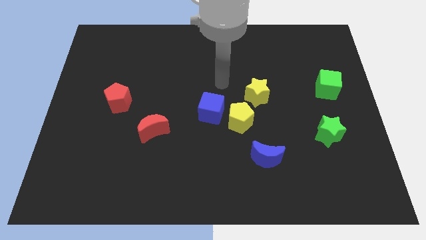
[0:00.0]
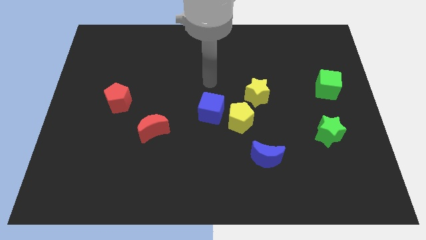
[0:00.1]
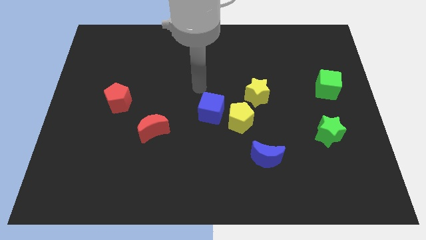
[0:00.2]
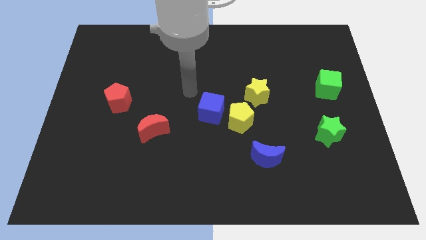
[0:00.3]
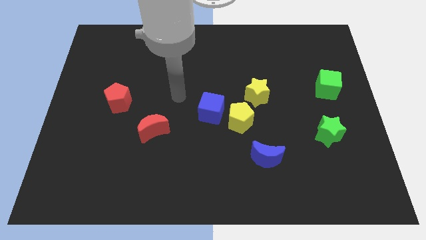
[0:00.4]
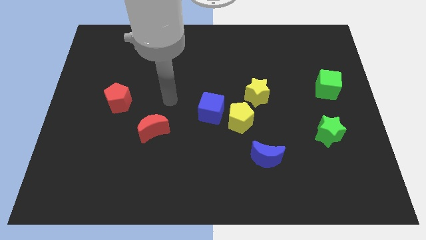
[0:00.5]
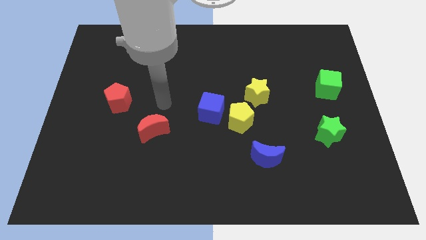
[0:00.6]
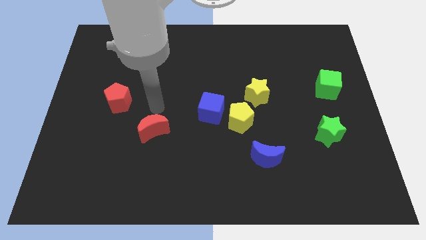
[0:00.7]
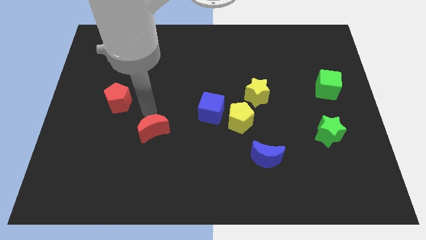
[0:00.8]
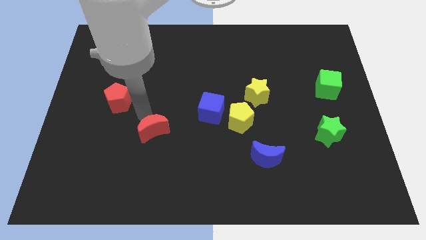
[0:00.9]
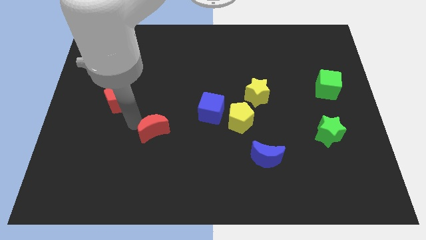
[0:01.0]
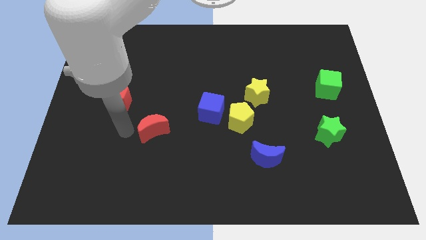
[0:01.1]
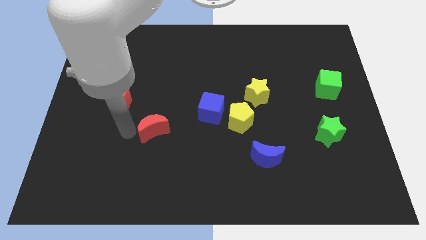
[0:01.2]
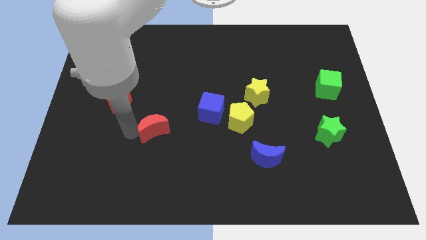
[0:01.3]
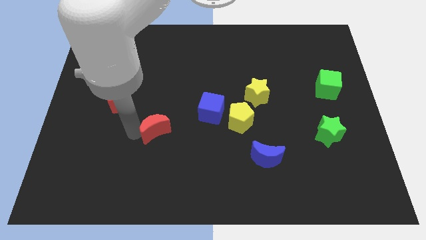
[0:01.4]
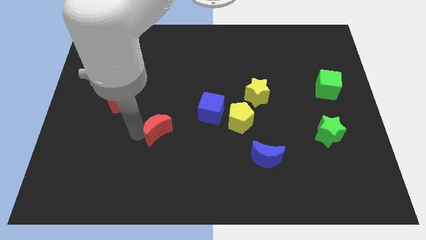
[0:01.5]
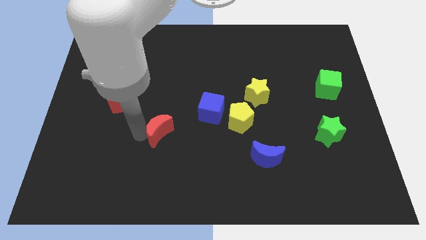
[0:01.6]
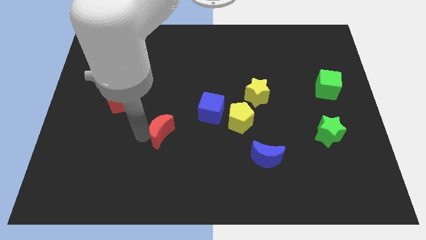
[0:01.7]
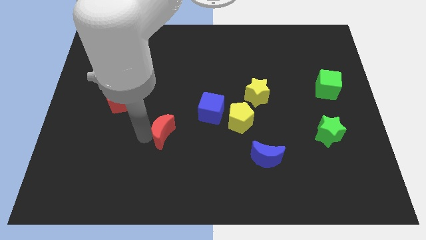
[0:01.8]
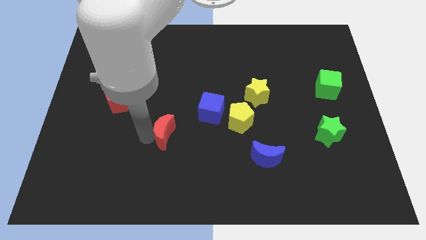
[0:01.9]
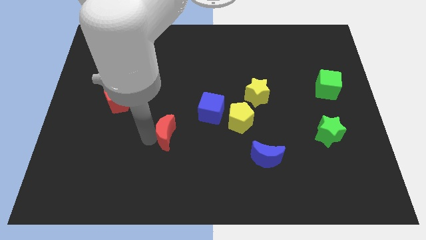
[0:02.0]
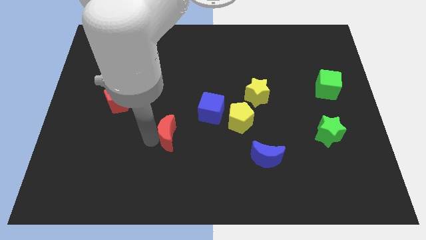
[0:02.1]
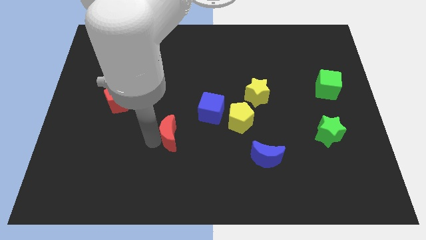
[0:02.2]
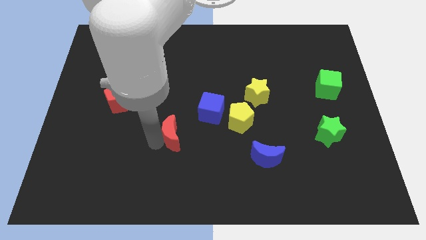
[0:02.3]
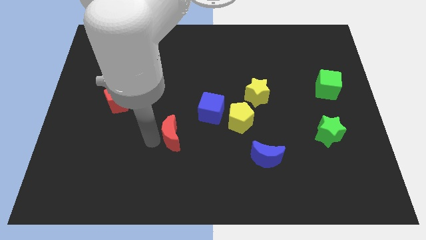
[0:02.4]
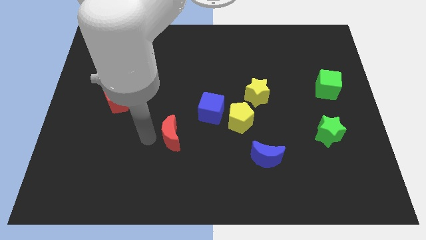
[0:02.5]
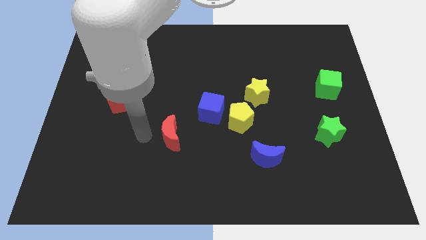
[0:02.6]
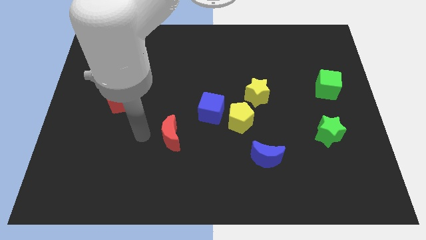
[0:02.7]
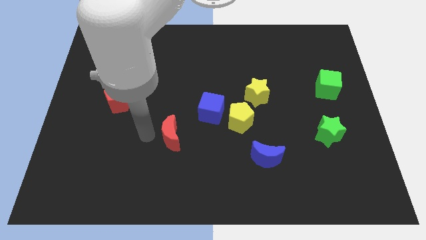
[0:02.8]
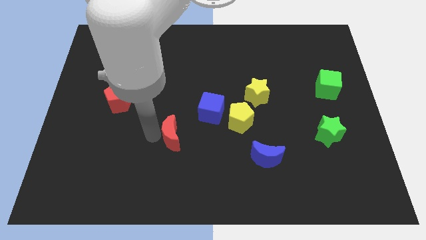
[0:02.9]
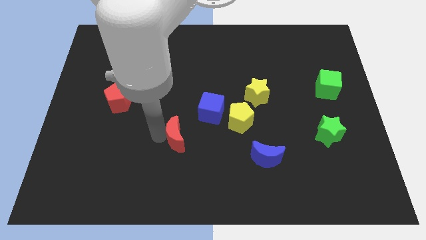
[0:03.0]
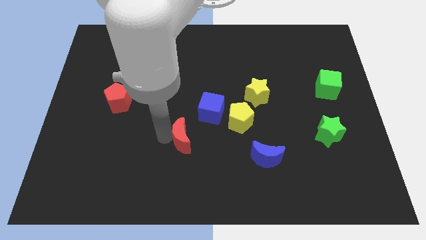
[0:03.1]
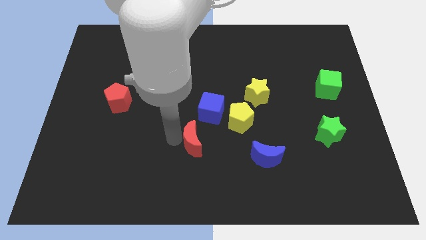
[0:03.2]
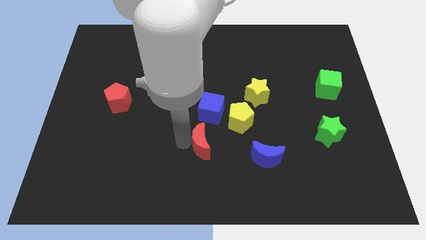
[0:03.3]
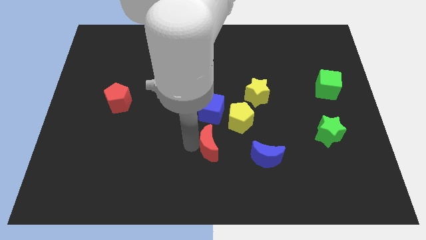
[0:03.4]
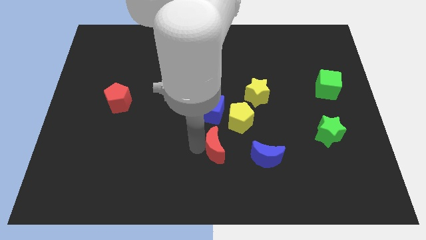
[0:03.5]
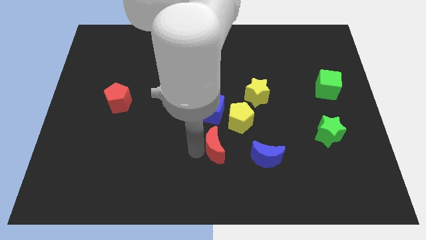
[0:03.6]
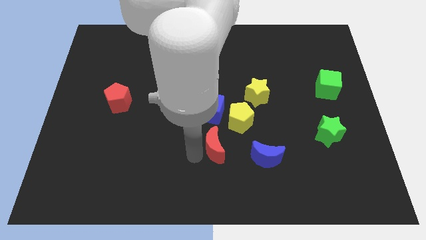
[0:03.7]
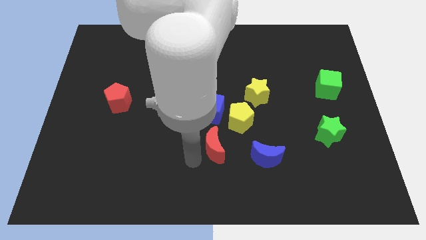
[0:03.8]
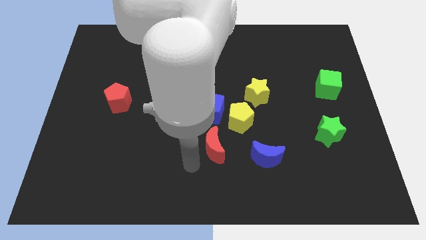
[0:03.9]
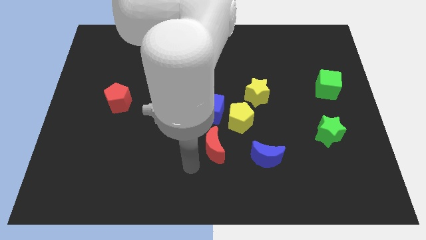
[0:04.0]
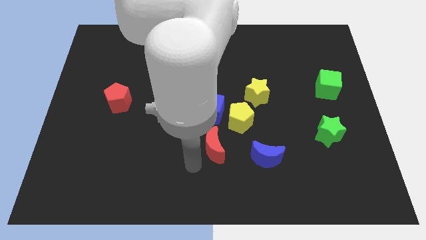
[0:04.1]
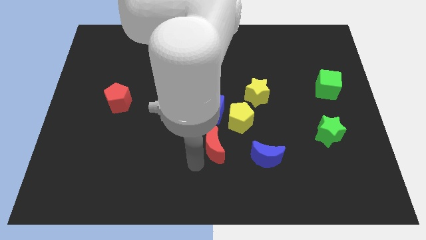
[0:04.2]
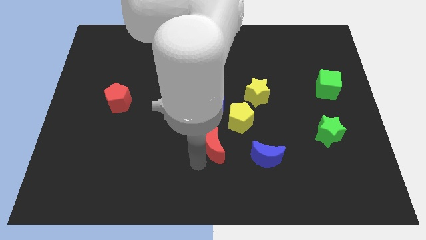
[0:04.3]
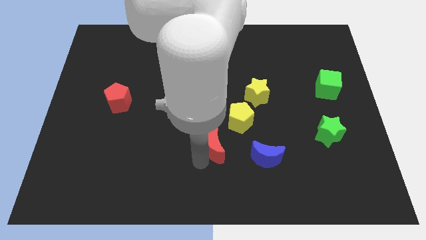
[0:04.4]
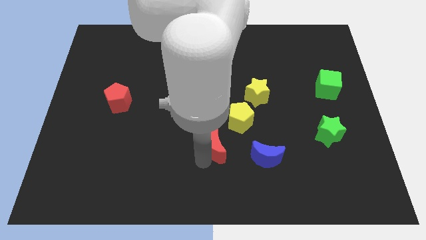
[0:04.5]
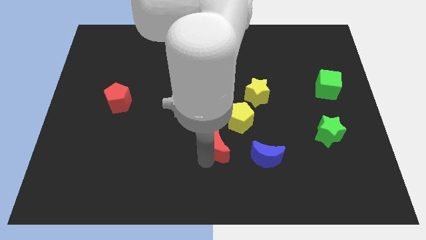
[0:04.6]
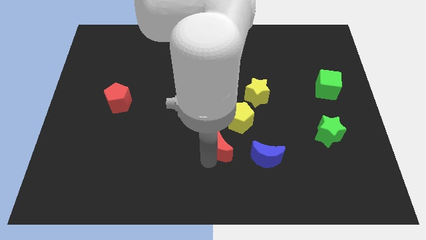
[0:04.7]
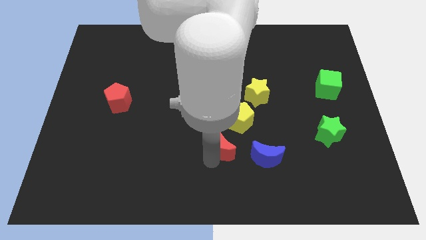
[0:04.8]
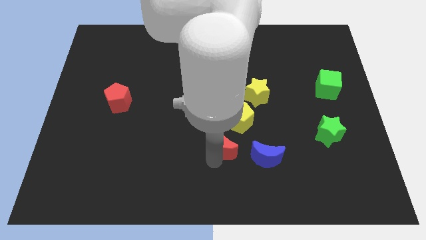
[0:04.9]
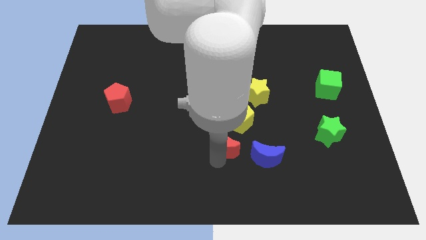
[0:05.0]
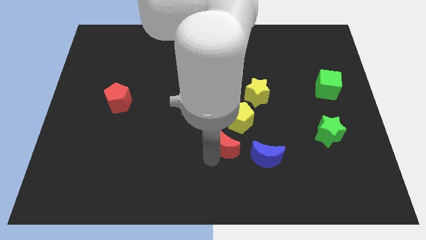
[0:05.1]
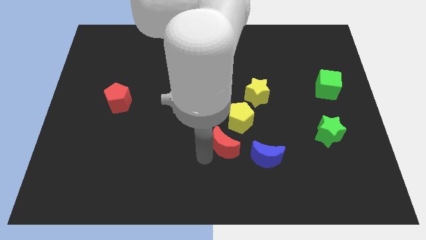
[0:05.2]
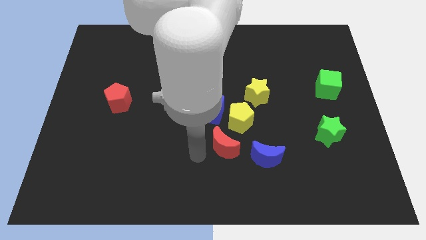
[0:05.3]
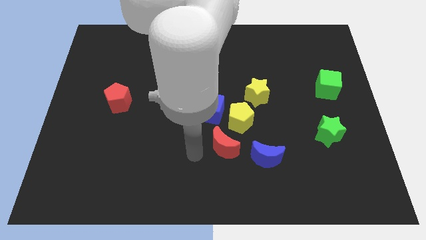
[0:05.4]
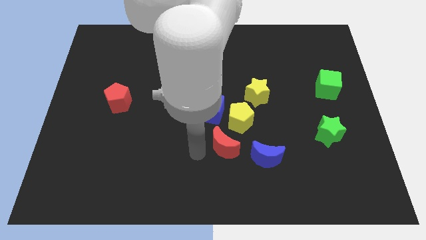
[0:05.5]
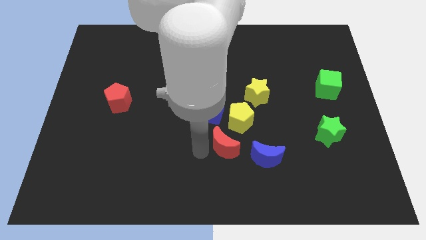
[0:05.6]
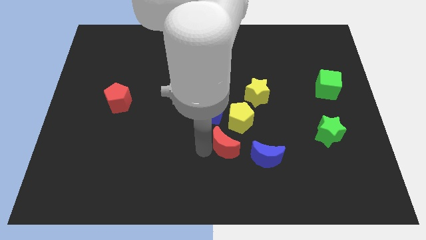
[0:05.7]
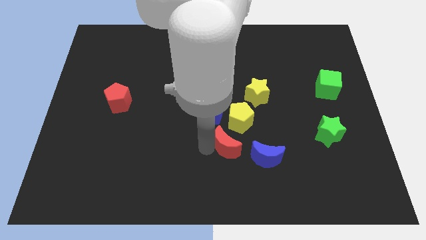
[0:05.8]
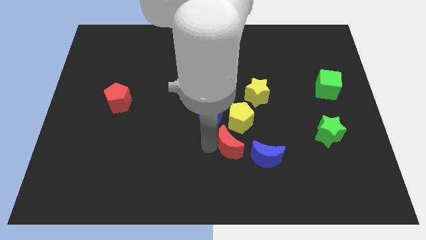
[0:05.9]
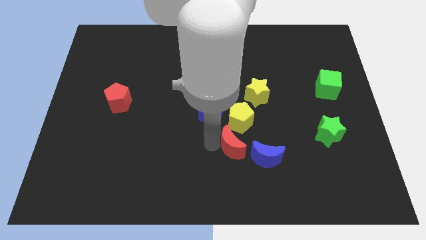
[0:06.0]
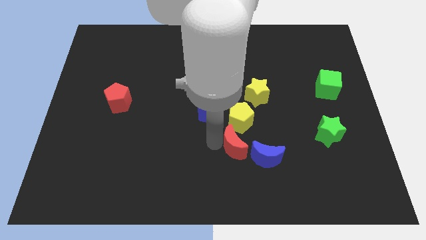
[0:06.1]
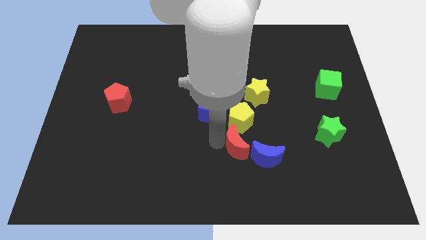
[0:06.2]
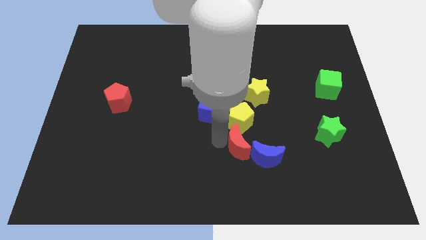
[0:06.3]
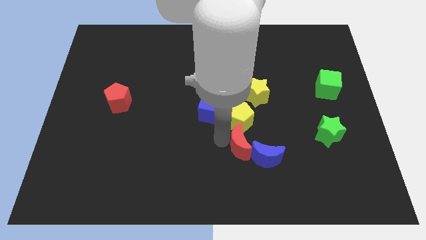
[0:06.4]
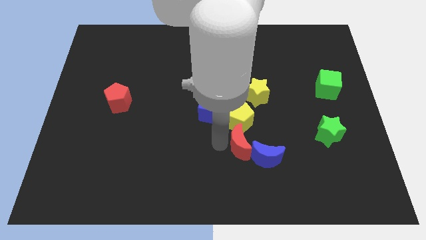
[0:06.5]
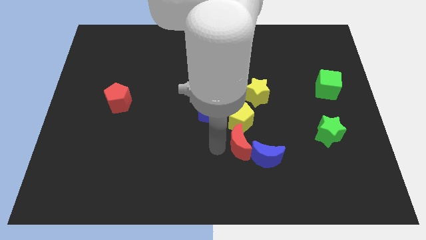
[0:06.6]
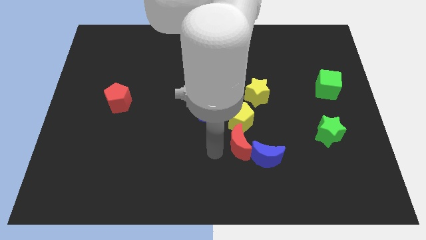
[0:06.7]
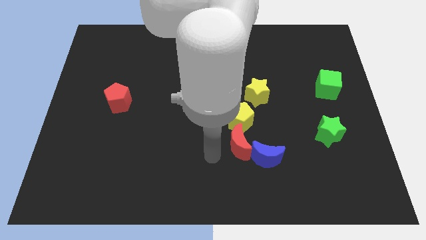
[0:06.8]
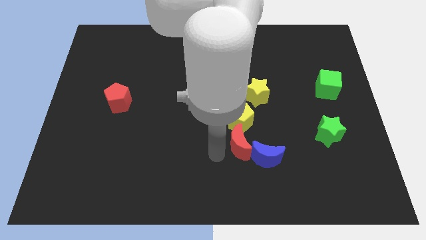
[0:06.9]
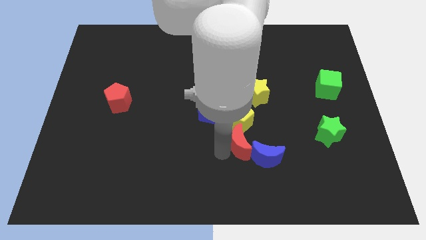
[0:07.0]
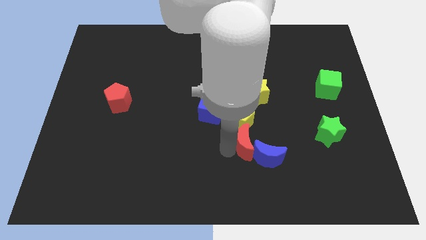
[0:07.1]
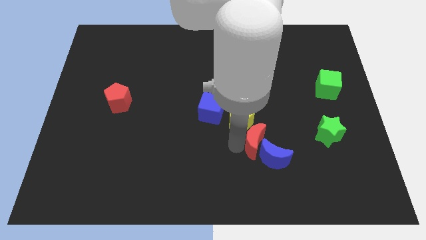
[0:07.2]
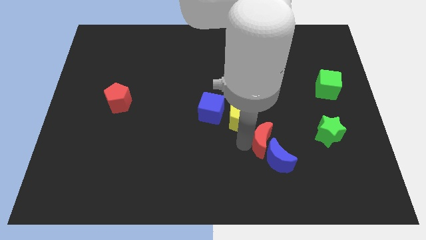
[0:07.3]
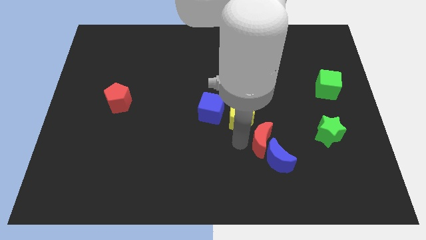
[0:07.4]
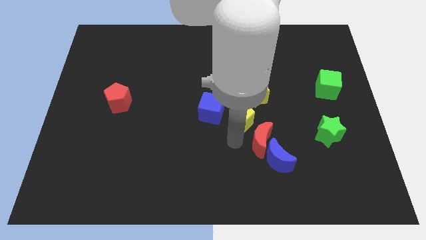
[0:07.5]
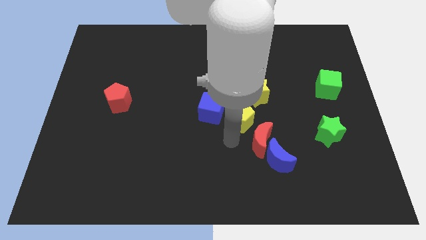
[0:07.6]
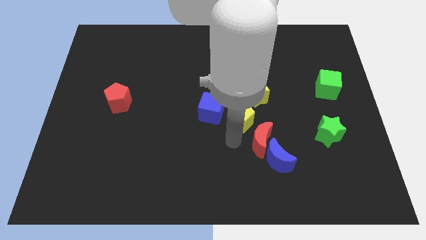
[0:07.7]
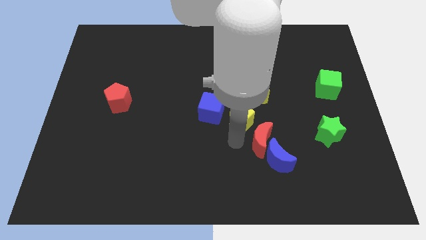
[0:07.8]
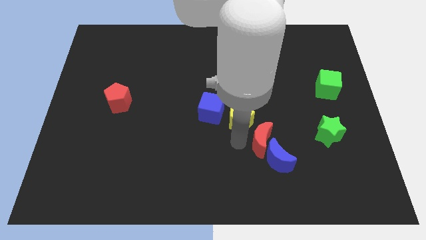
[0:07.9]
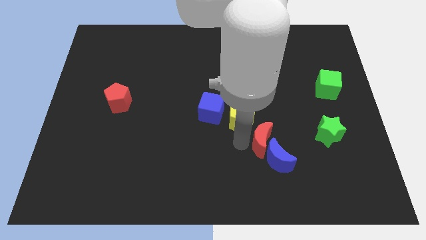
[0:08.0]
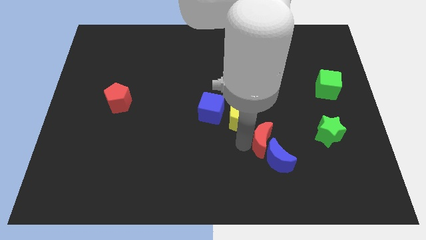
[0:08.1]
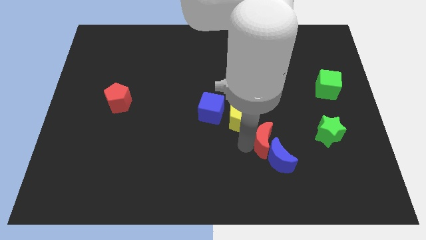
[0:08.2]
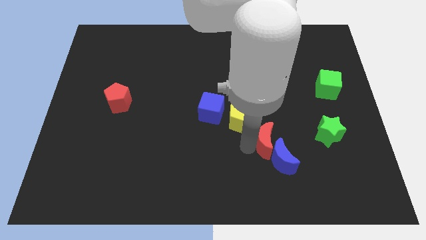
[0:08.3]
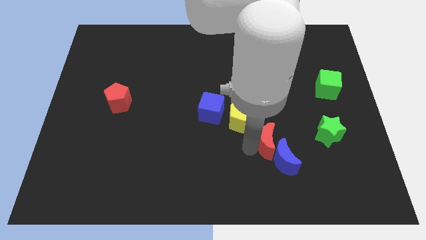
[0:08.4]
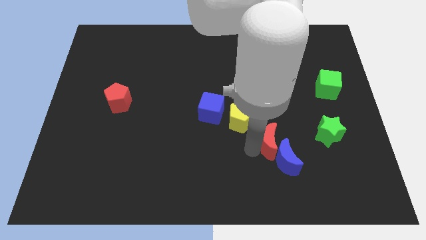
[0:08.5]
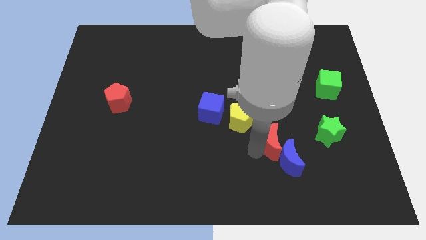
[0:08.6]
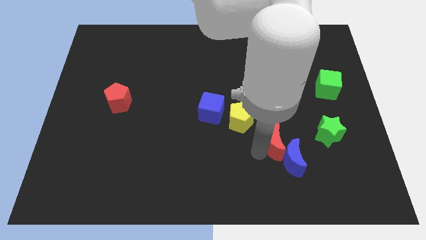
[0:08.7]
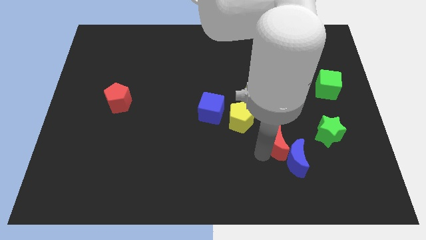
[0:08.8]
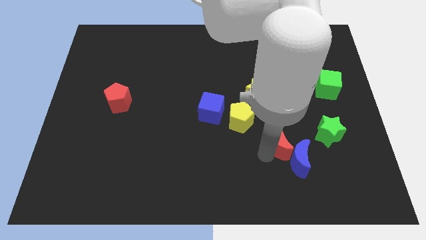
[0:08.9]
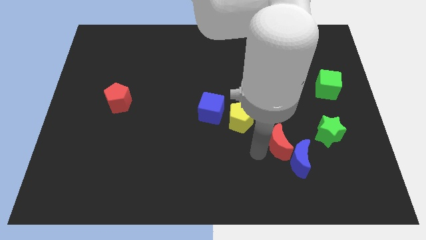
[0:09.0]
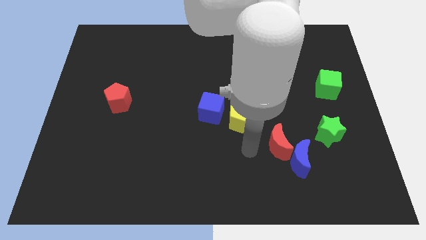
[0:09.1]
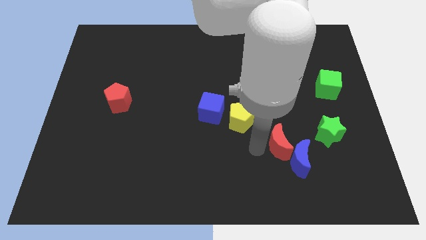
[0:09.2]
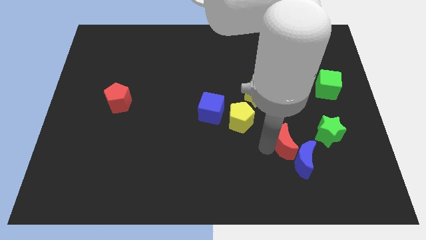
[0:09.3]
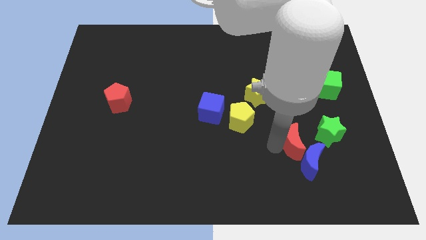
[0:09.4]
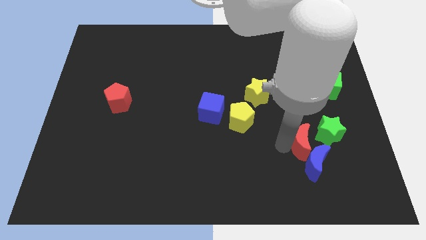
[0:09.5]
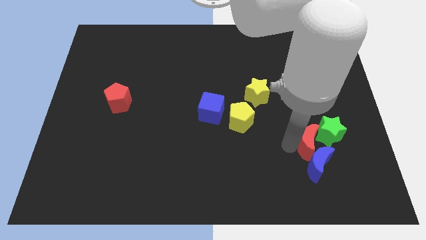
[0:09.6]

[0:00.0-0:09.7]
slide the red moon towards the green star
